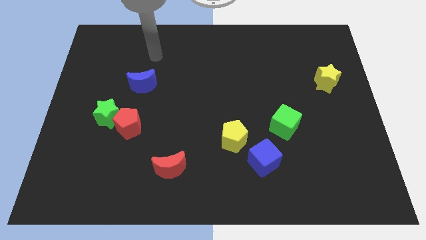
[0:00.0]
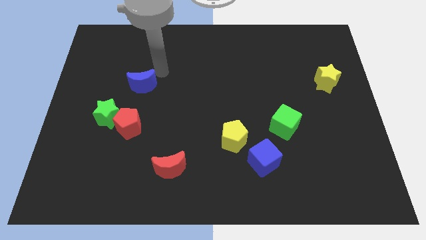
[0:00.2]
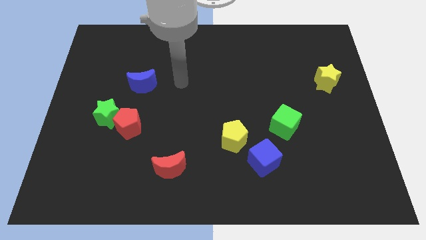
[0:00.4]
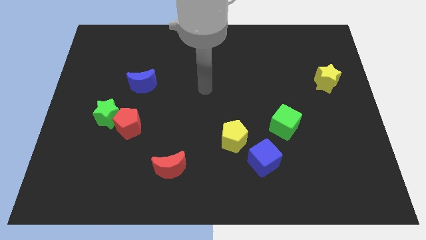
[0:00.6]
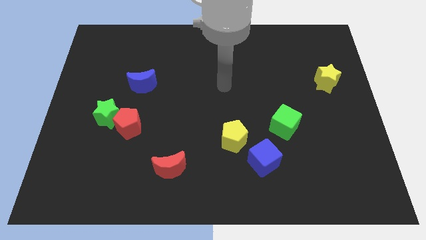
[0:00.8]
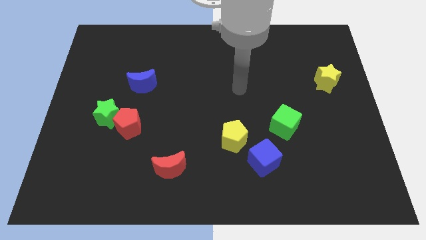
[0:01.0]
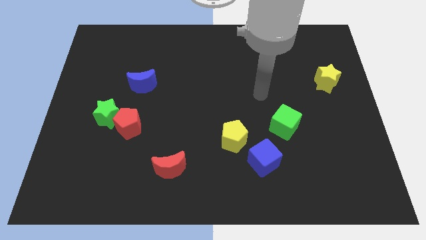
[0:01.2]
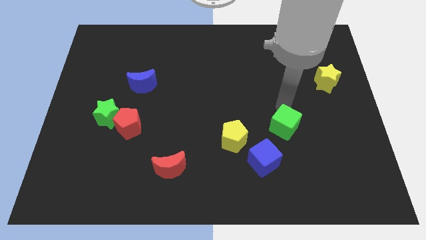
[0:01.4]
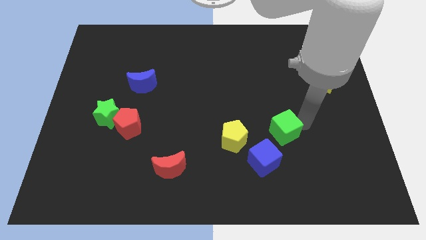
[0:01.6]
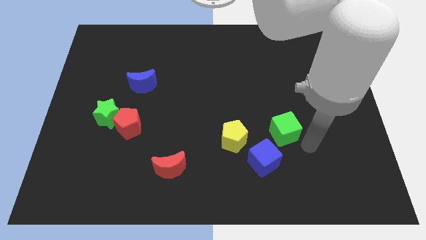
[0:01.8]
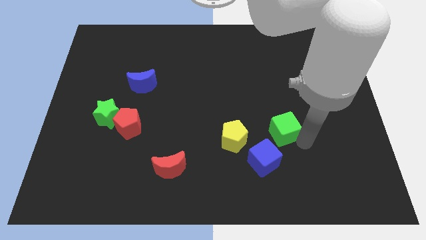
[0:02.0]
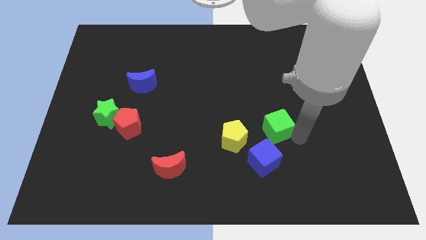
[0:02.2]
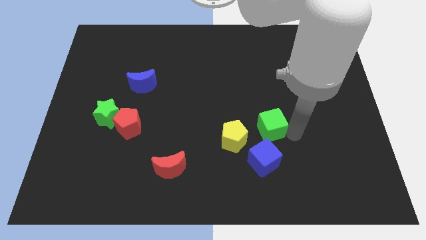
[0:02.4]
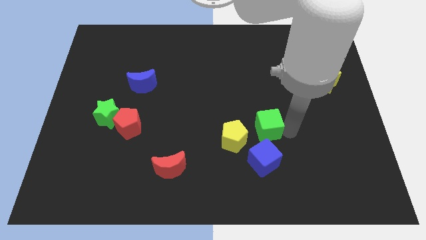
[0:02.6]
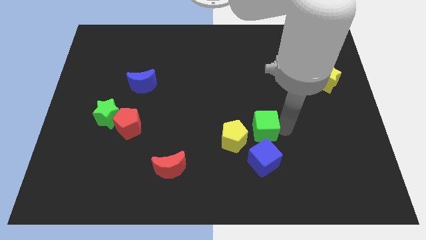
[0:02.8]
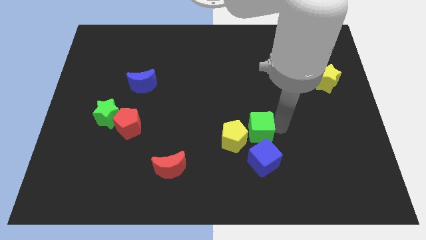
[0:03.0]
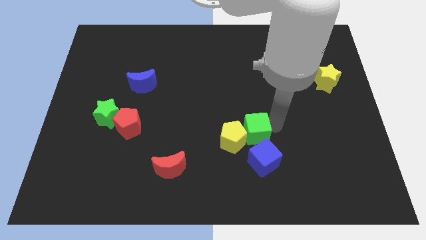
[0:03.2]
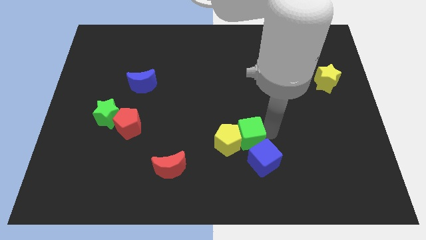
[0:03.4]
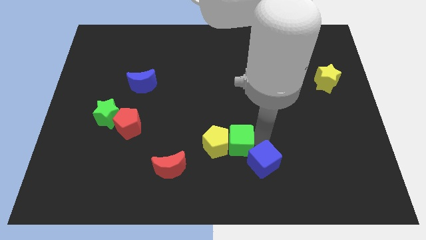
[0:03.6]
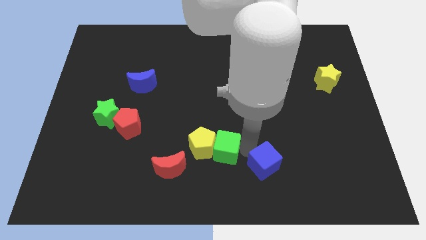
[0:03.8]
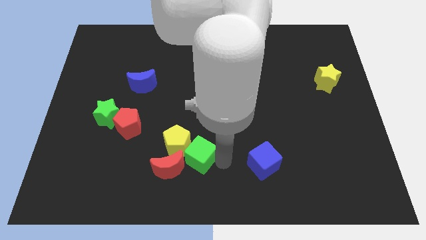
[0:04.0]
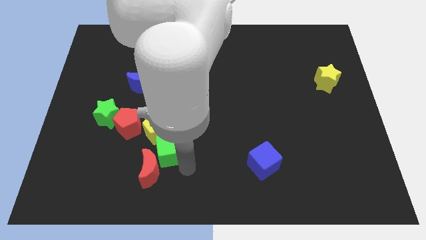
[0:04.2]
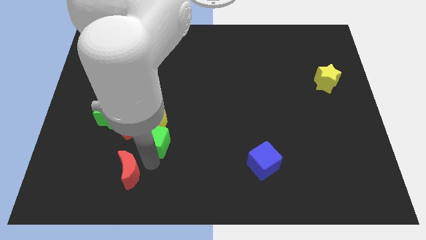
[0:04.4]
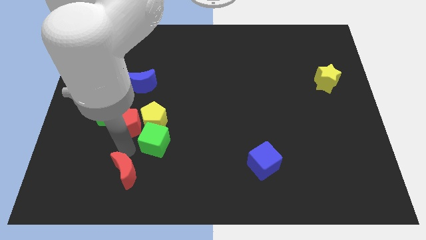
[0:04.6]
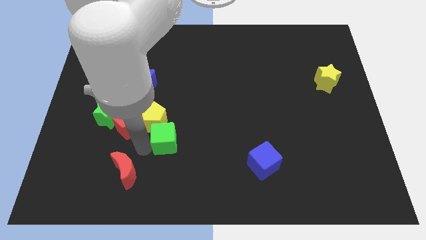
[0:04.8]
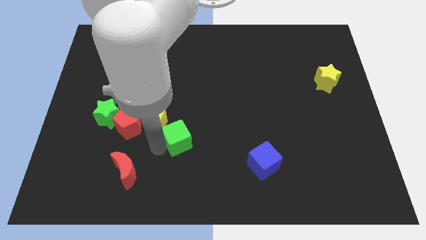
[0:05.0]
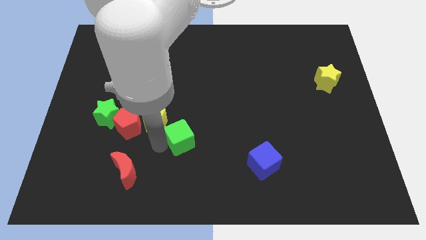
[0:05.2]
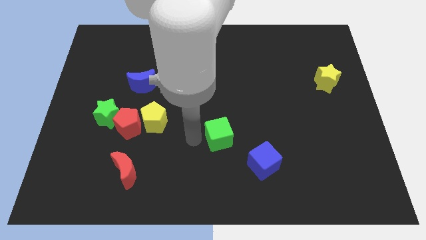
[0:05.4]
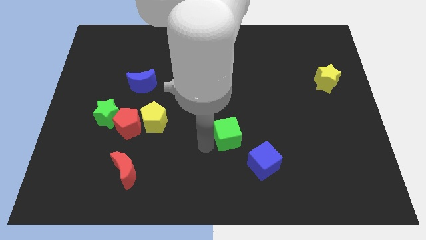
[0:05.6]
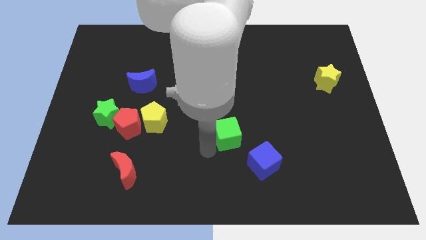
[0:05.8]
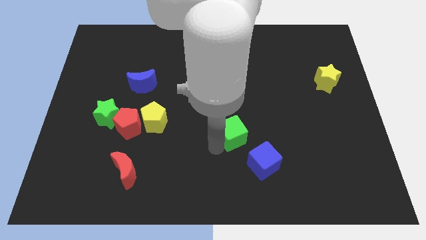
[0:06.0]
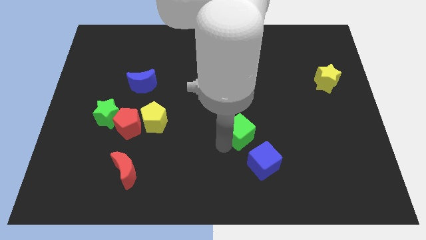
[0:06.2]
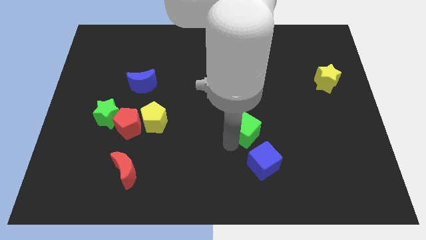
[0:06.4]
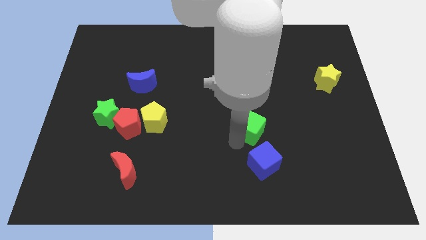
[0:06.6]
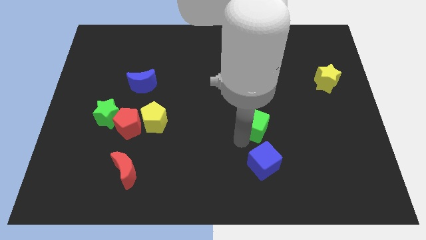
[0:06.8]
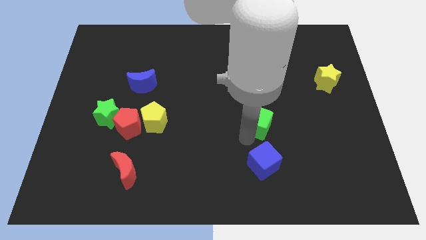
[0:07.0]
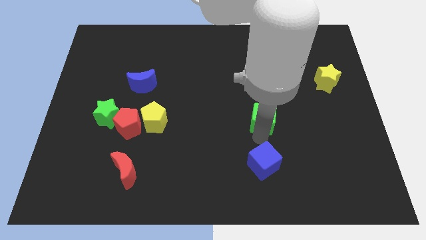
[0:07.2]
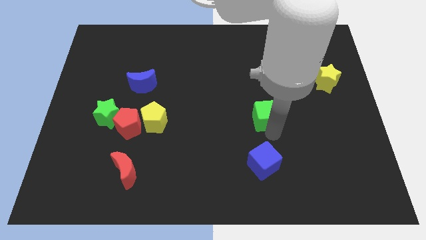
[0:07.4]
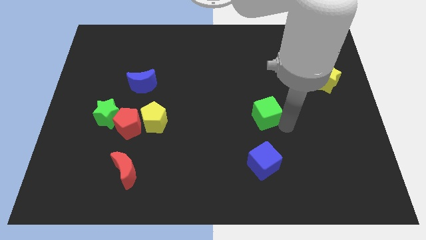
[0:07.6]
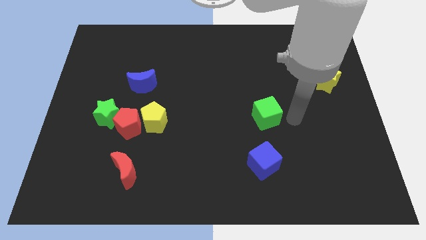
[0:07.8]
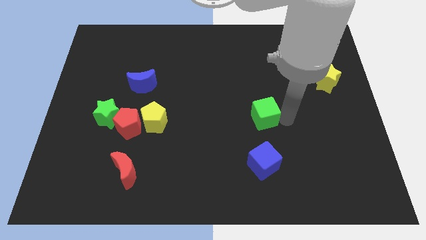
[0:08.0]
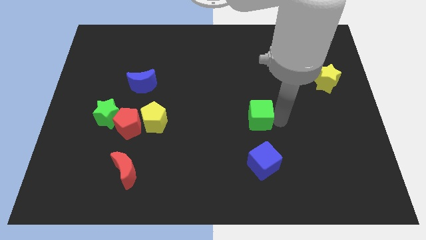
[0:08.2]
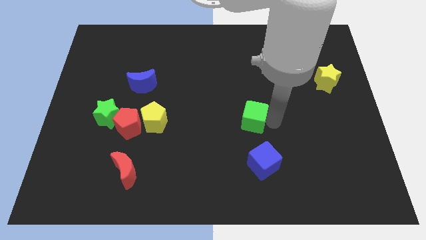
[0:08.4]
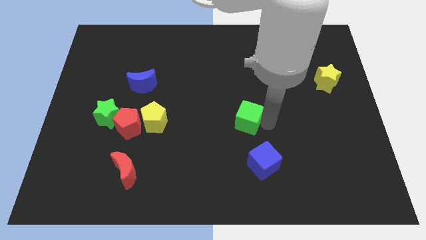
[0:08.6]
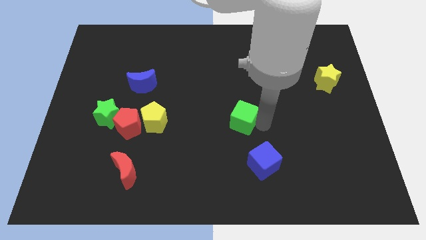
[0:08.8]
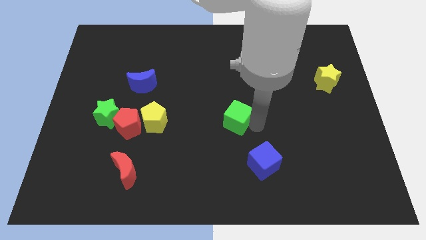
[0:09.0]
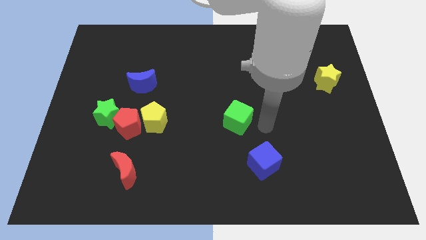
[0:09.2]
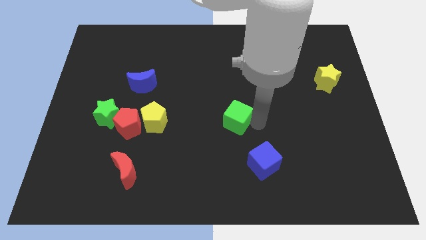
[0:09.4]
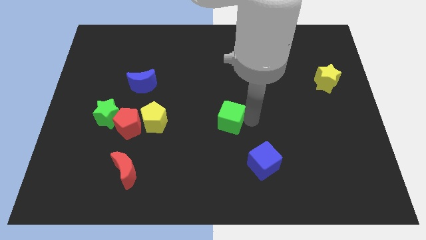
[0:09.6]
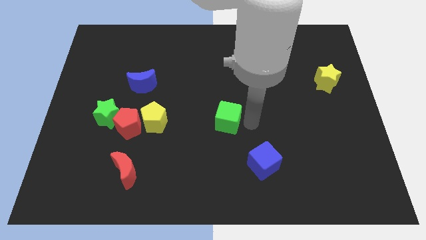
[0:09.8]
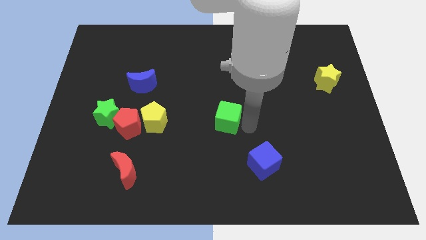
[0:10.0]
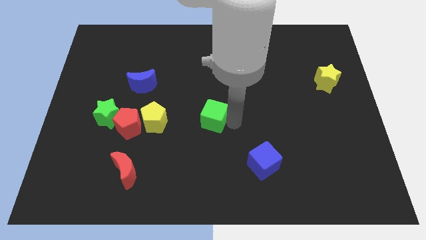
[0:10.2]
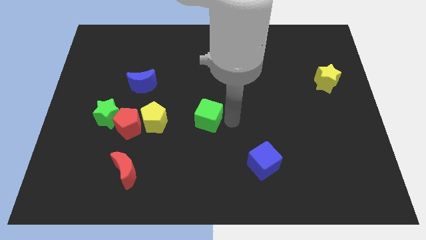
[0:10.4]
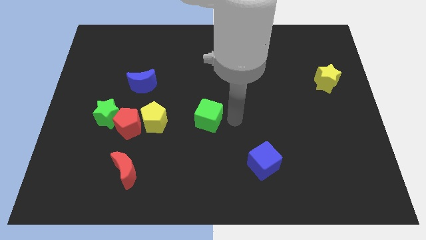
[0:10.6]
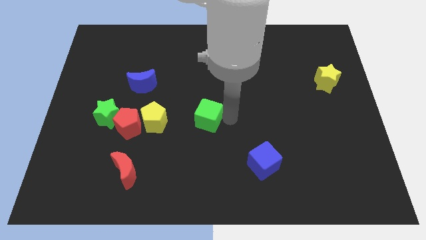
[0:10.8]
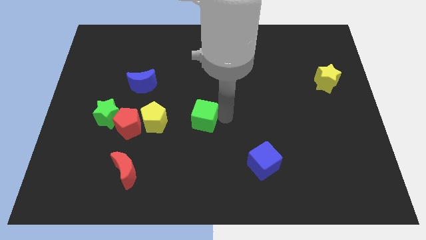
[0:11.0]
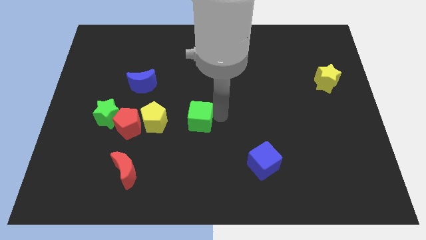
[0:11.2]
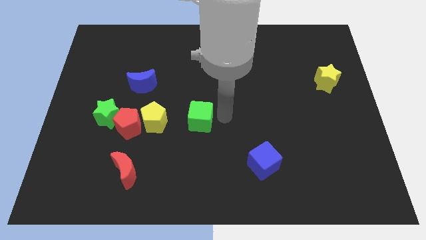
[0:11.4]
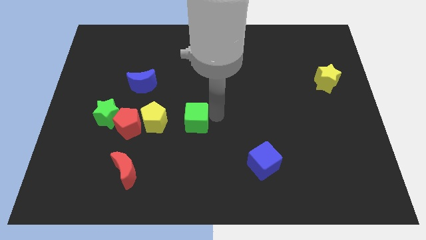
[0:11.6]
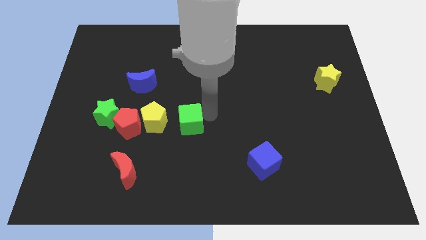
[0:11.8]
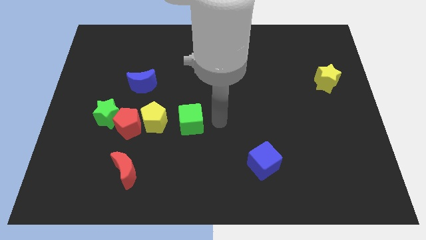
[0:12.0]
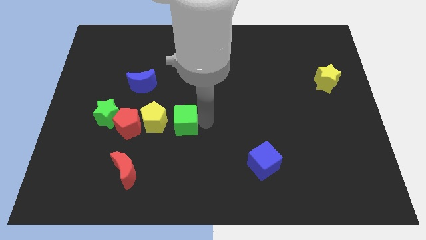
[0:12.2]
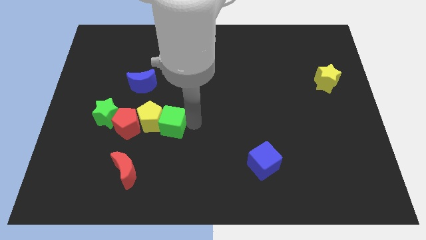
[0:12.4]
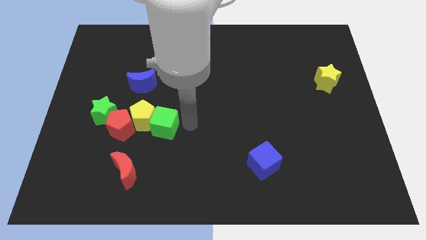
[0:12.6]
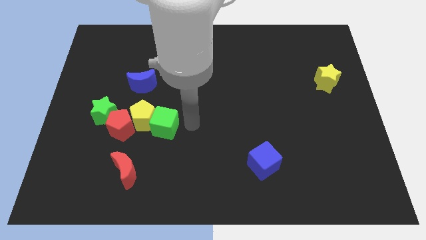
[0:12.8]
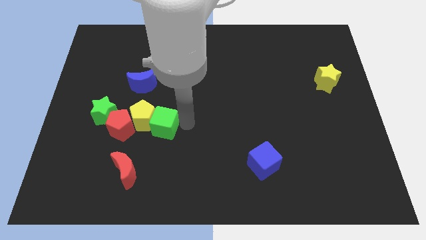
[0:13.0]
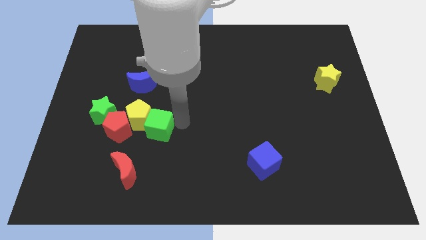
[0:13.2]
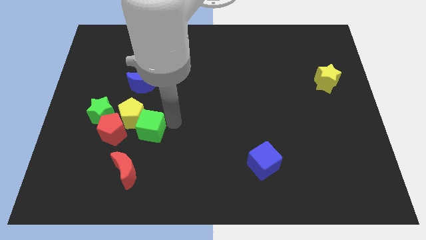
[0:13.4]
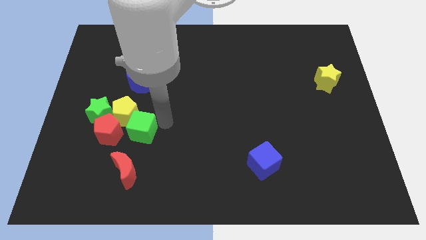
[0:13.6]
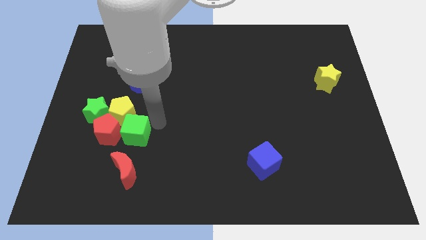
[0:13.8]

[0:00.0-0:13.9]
slide the green cube towards the red pentagon

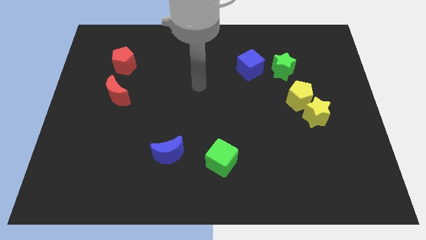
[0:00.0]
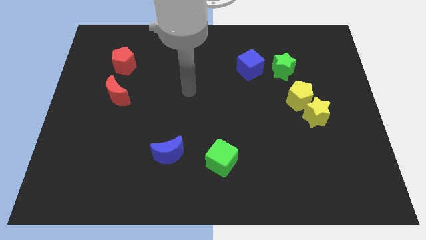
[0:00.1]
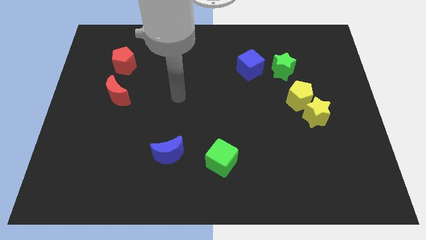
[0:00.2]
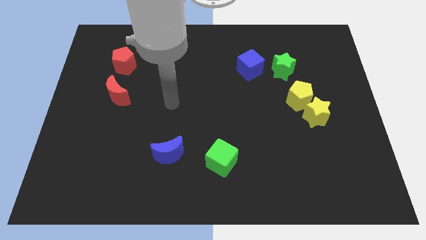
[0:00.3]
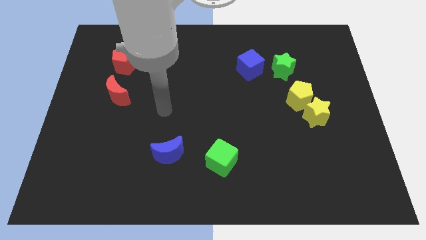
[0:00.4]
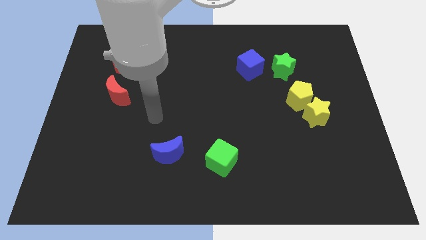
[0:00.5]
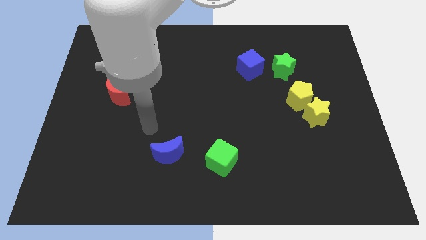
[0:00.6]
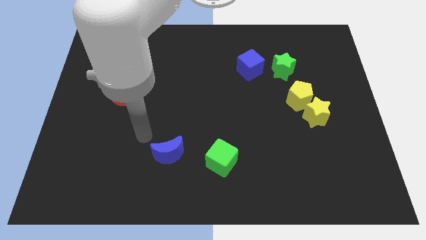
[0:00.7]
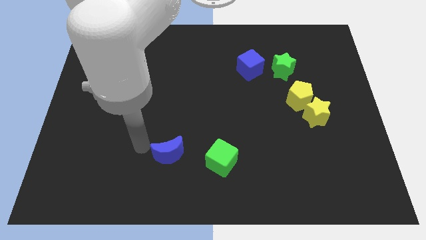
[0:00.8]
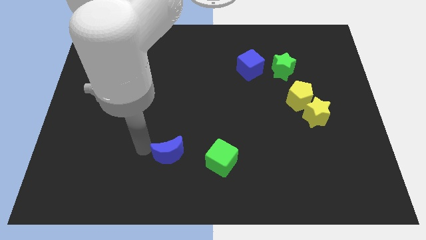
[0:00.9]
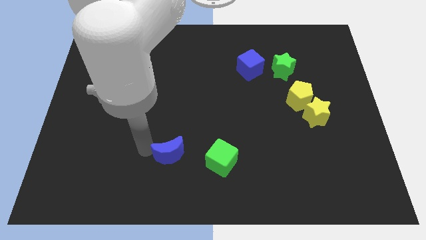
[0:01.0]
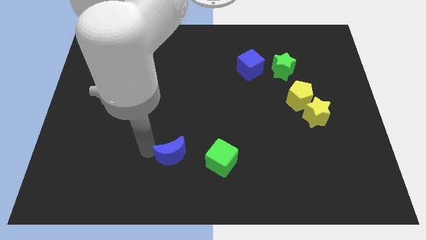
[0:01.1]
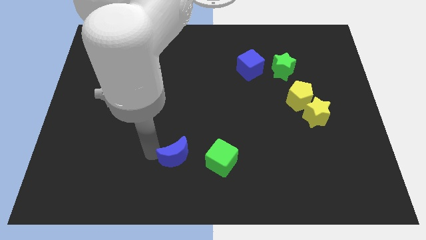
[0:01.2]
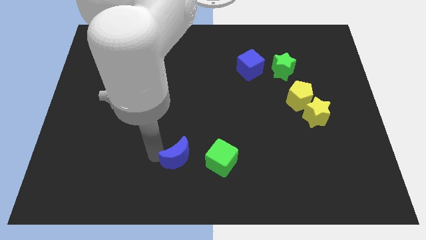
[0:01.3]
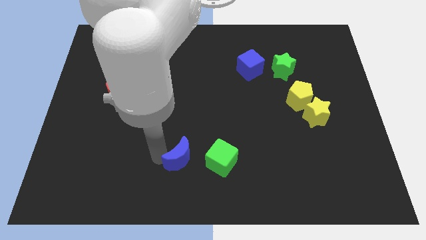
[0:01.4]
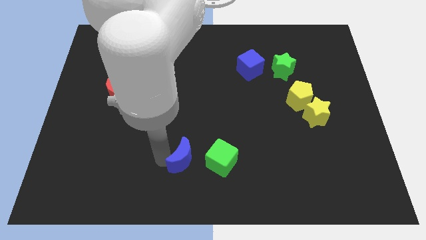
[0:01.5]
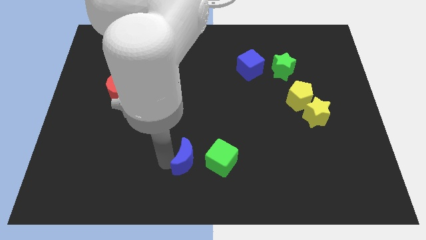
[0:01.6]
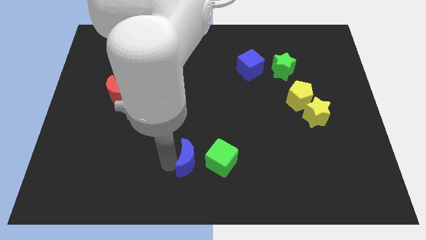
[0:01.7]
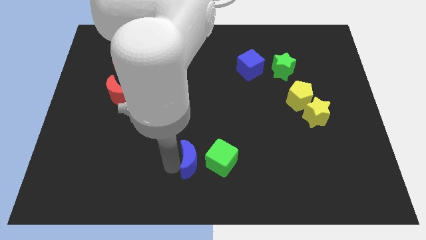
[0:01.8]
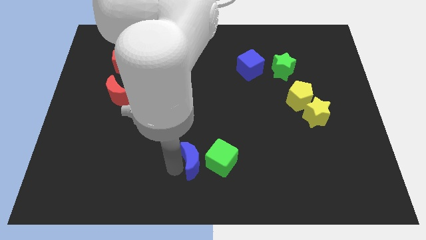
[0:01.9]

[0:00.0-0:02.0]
slide the blue moon next to the green cube
